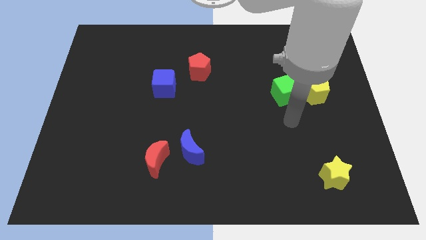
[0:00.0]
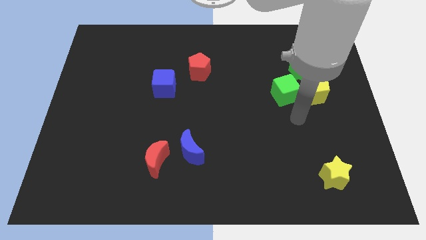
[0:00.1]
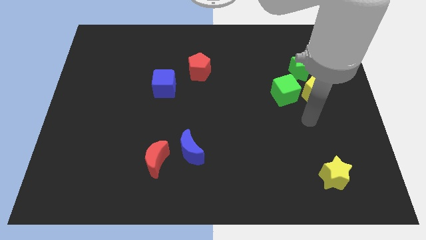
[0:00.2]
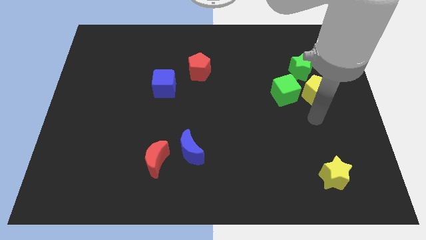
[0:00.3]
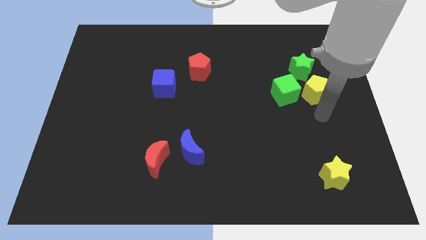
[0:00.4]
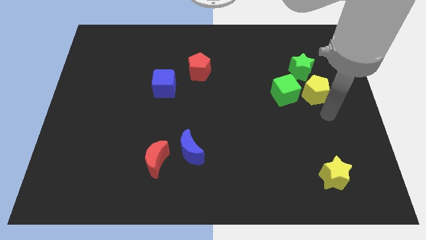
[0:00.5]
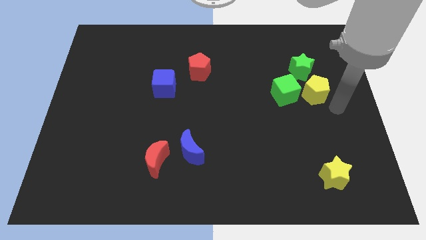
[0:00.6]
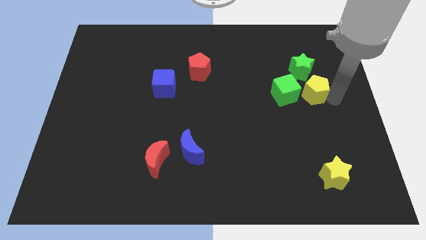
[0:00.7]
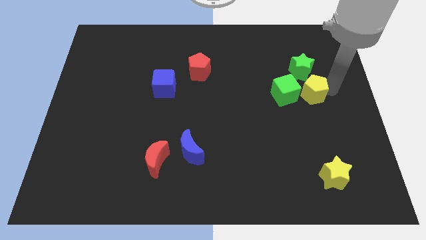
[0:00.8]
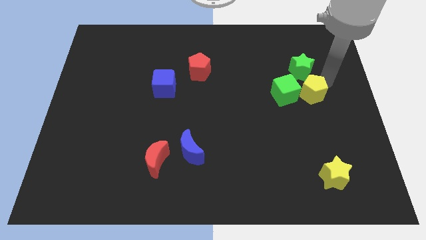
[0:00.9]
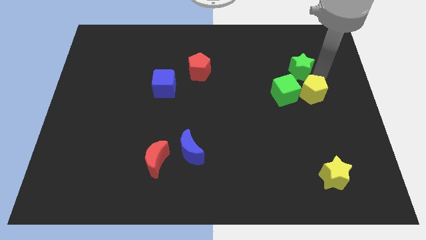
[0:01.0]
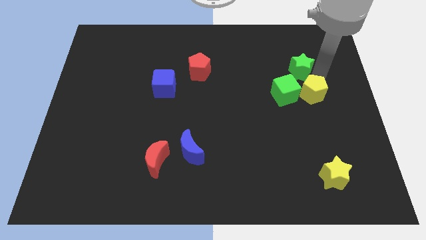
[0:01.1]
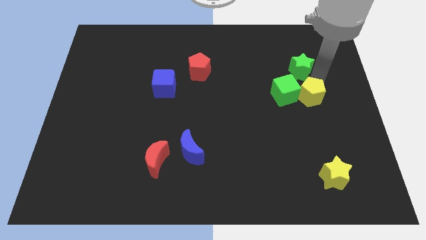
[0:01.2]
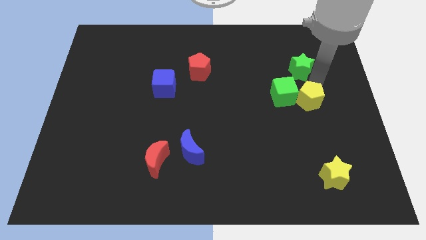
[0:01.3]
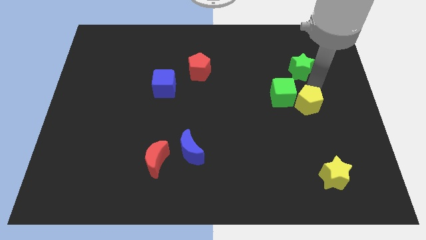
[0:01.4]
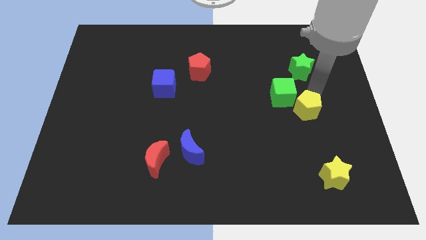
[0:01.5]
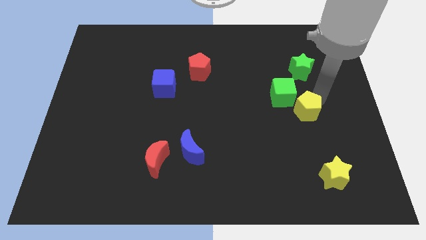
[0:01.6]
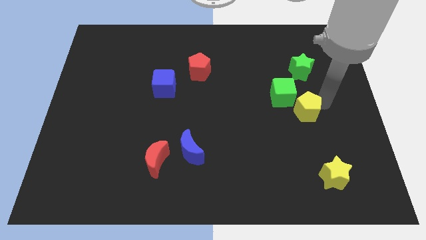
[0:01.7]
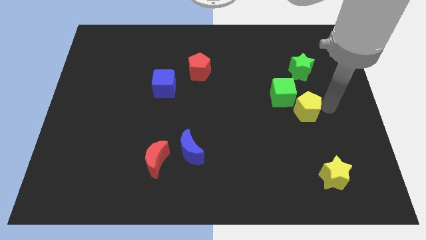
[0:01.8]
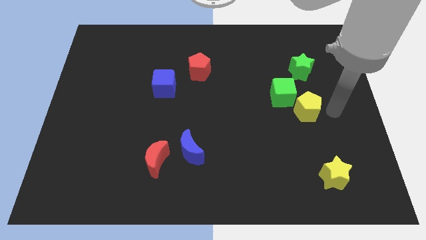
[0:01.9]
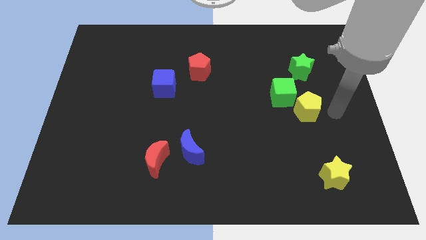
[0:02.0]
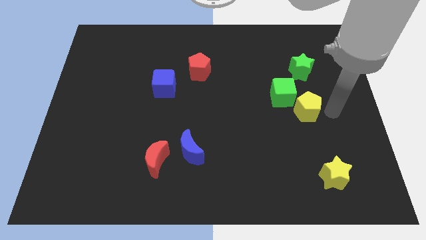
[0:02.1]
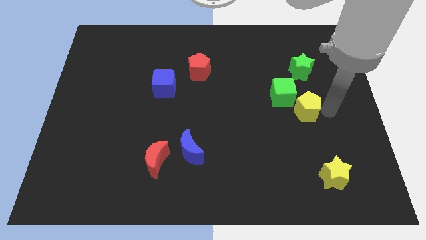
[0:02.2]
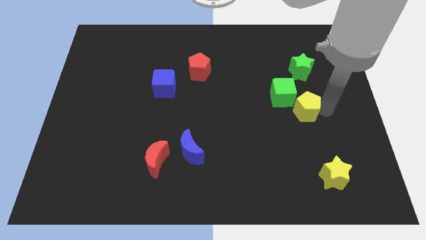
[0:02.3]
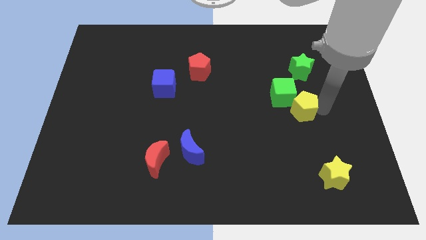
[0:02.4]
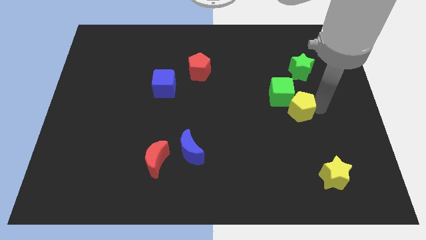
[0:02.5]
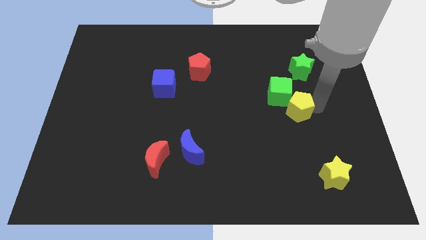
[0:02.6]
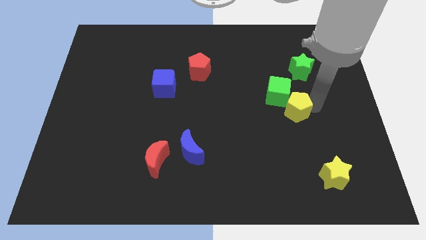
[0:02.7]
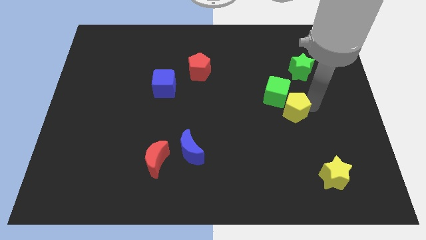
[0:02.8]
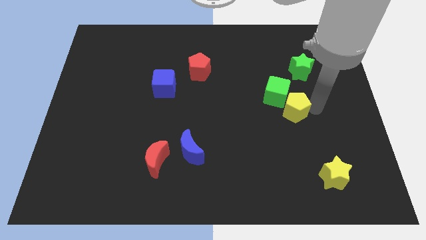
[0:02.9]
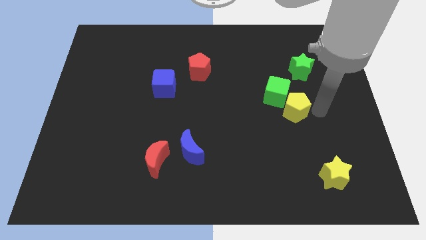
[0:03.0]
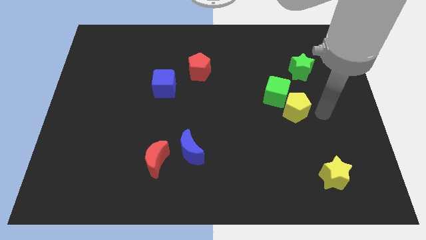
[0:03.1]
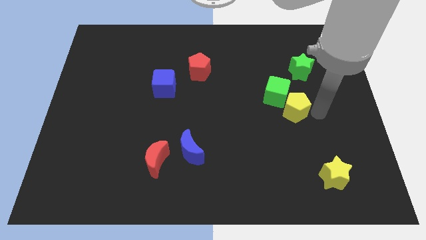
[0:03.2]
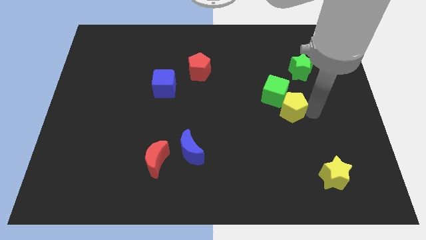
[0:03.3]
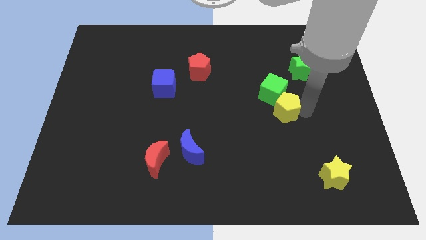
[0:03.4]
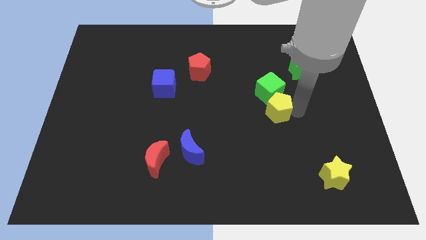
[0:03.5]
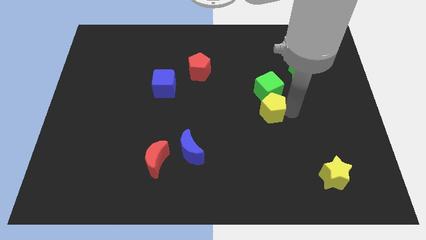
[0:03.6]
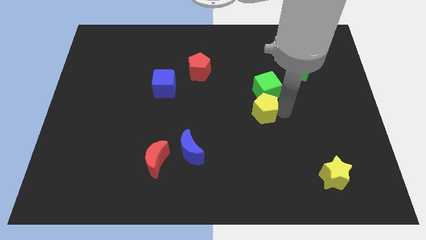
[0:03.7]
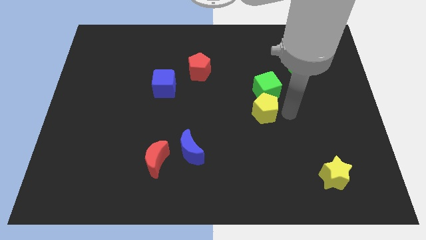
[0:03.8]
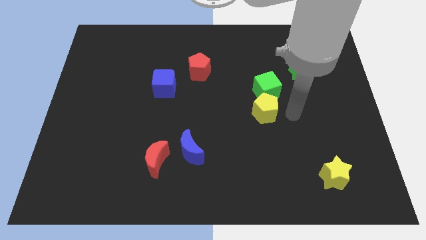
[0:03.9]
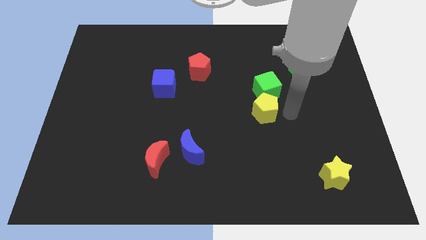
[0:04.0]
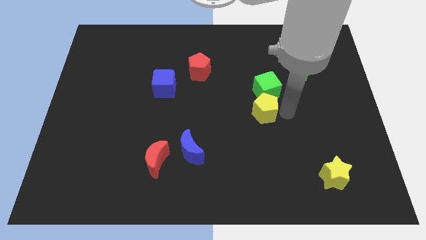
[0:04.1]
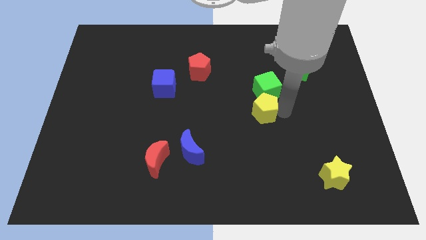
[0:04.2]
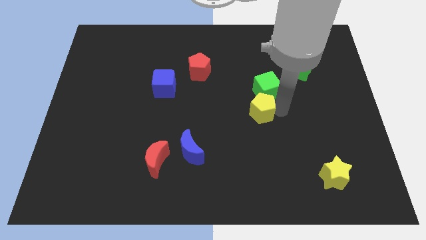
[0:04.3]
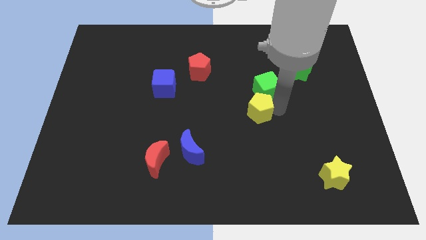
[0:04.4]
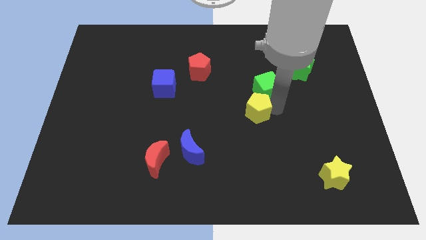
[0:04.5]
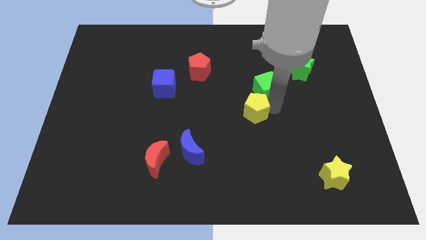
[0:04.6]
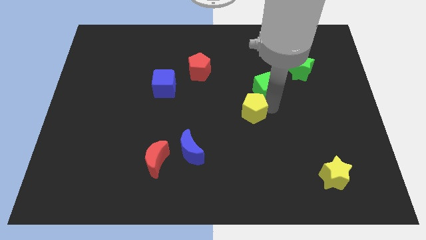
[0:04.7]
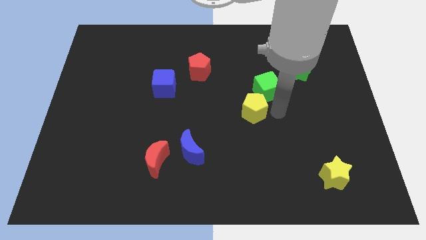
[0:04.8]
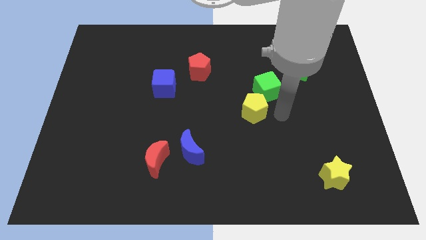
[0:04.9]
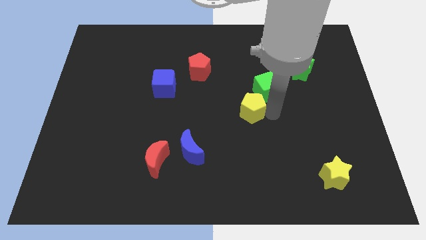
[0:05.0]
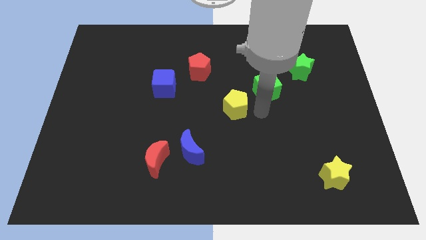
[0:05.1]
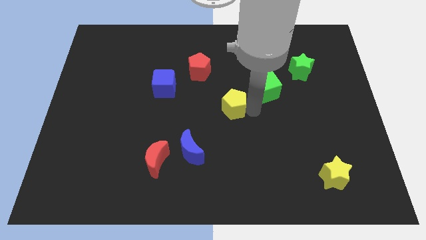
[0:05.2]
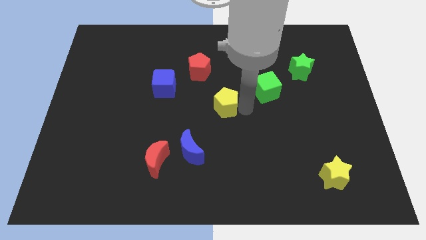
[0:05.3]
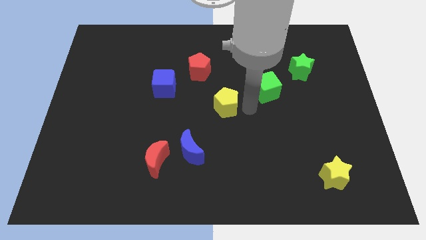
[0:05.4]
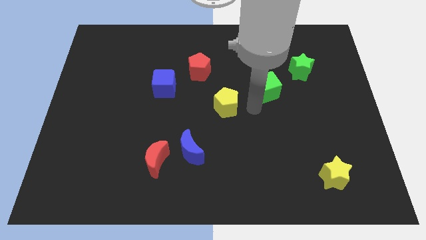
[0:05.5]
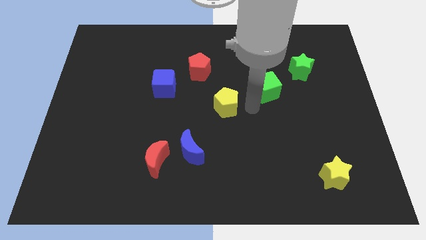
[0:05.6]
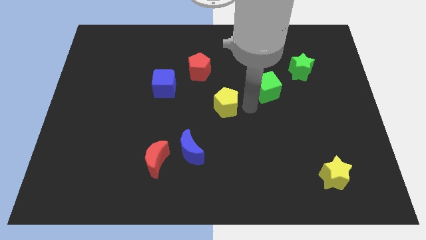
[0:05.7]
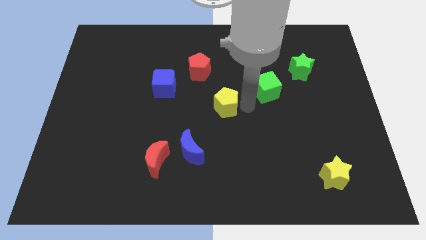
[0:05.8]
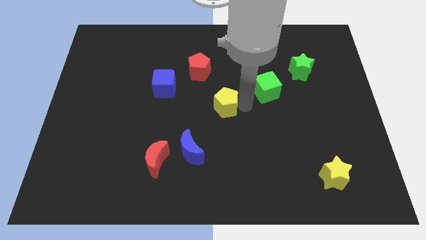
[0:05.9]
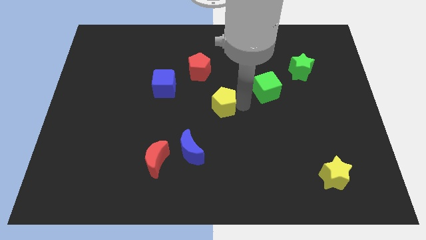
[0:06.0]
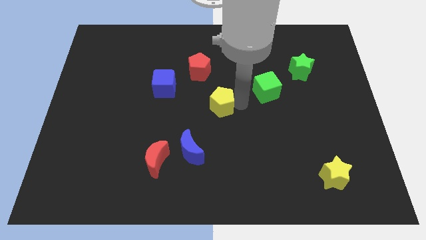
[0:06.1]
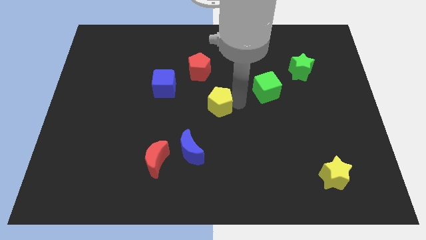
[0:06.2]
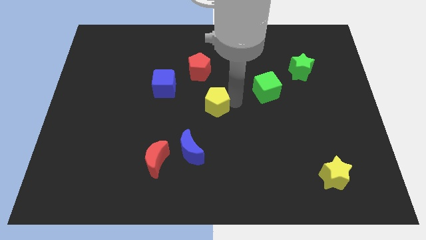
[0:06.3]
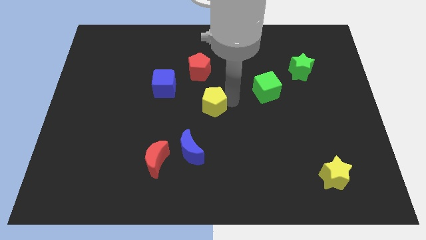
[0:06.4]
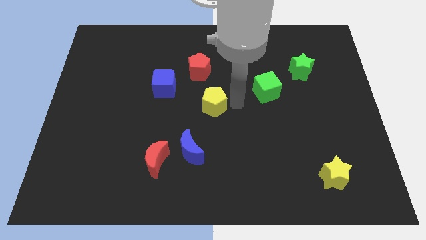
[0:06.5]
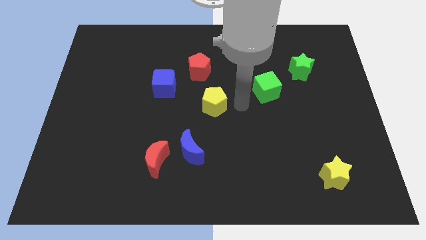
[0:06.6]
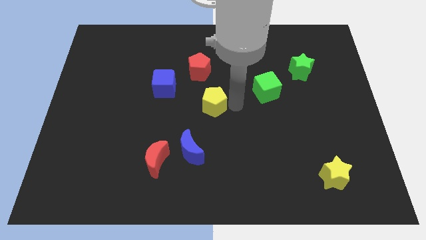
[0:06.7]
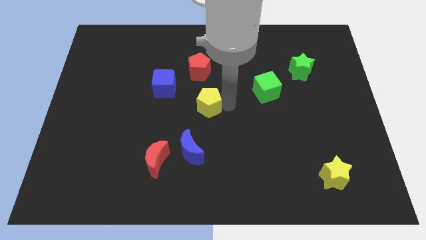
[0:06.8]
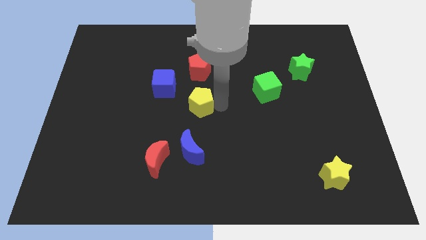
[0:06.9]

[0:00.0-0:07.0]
put the yellow pentagon to the bottom right side of the blue cube
